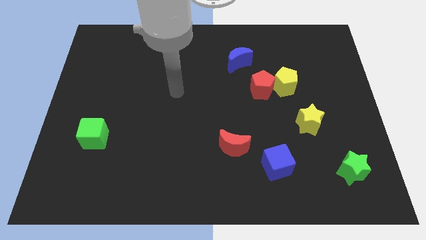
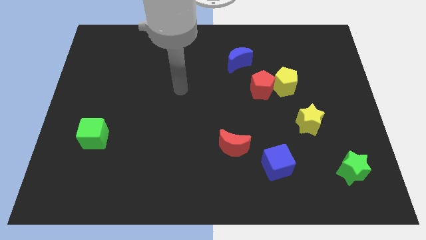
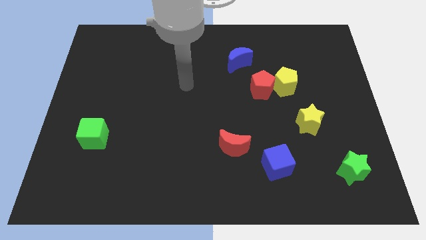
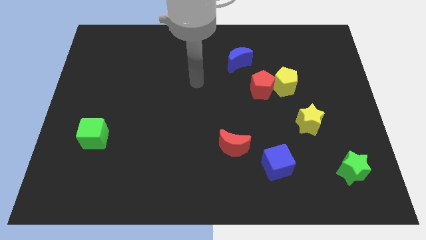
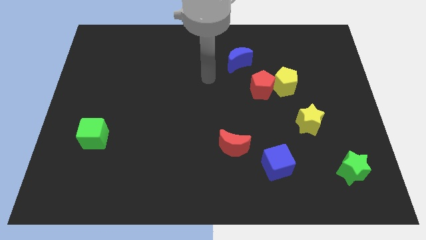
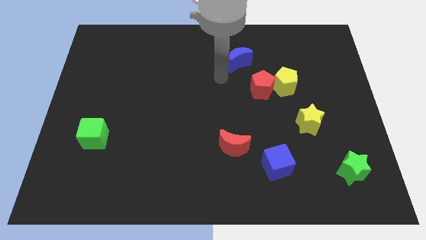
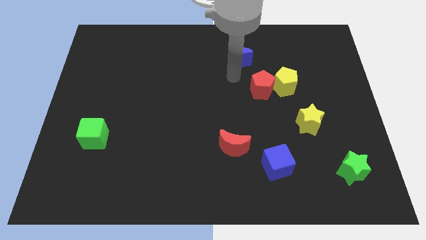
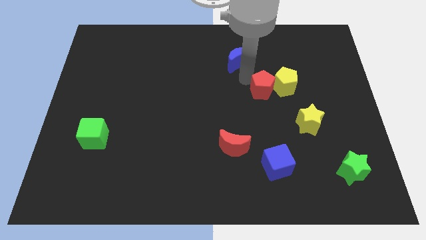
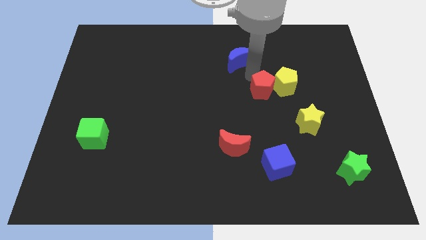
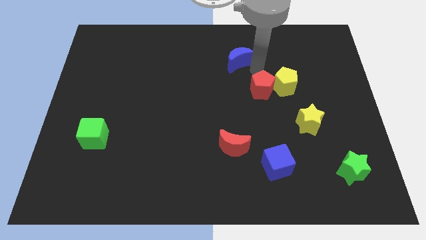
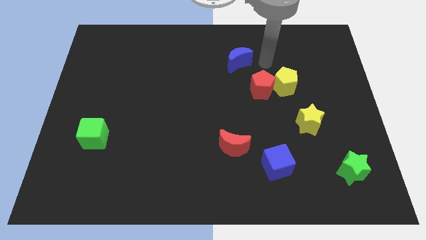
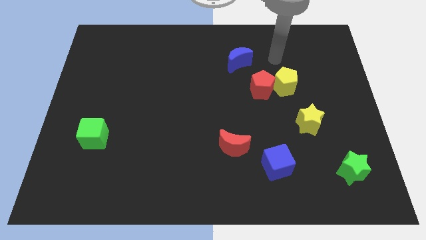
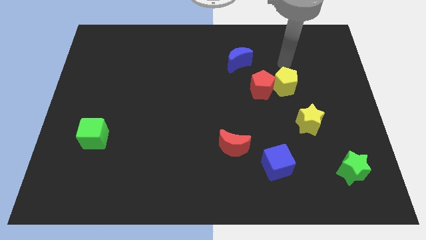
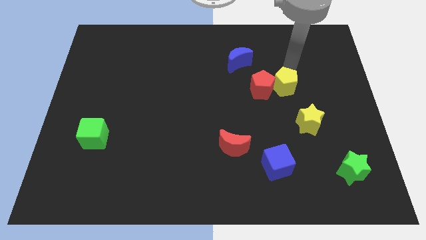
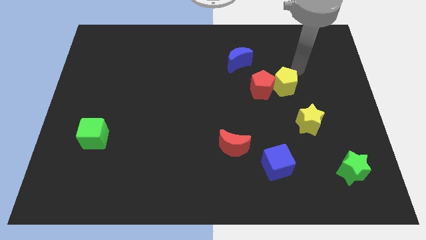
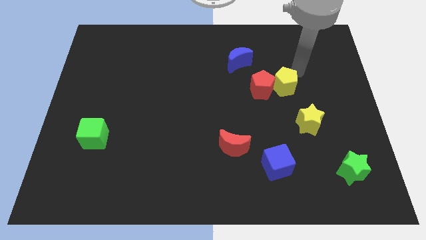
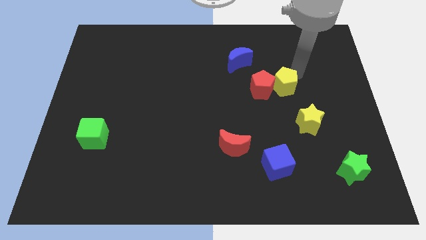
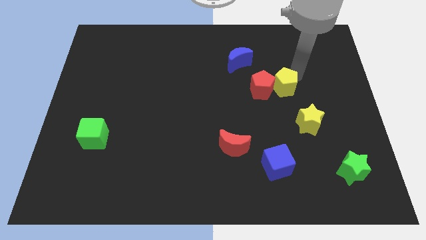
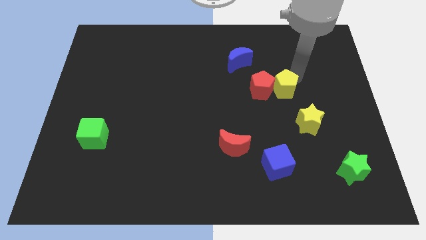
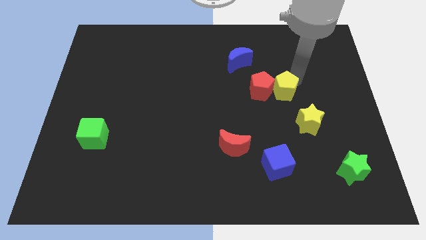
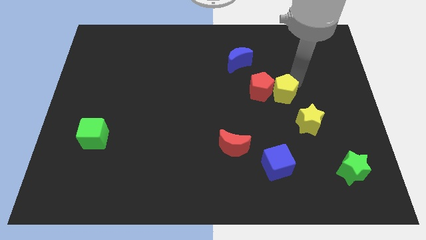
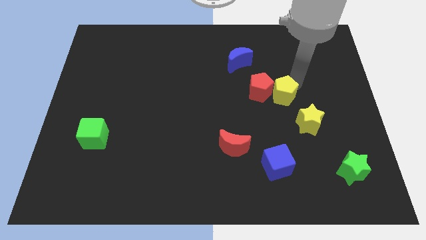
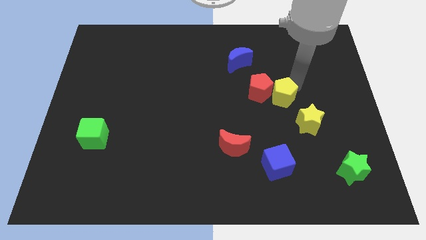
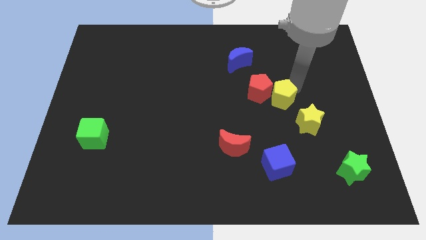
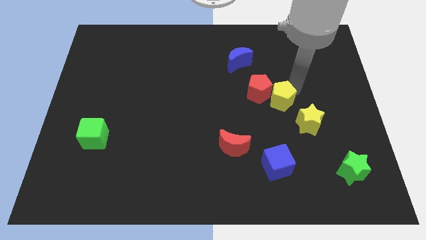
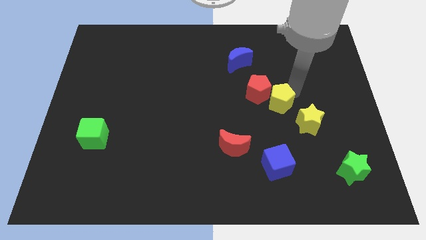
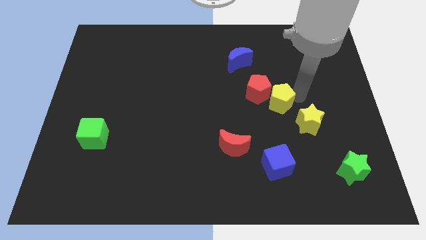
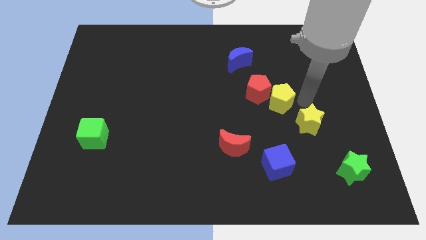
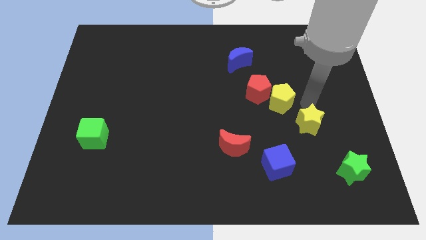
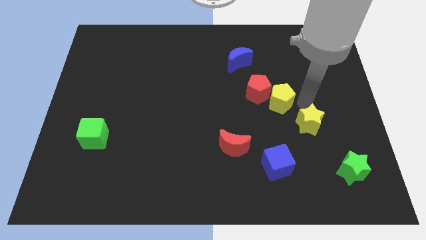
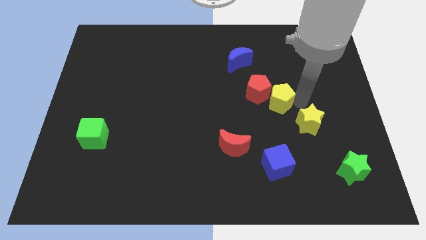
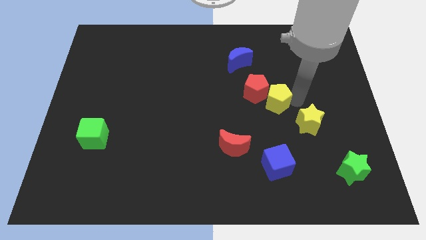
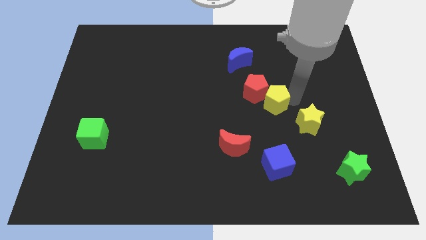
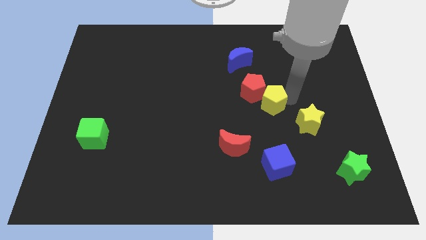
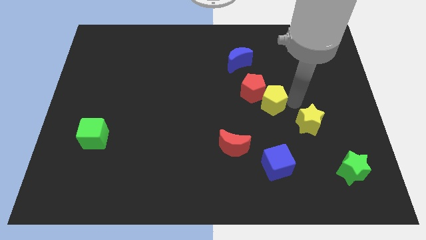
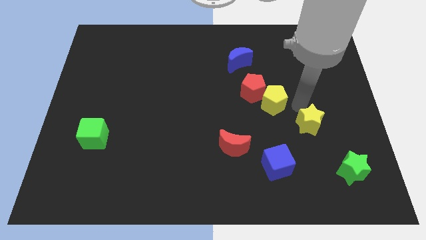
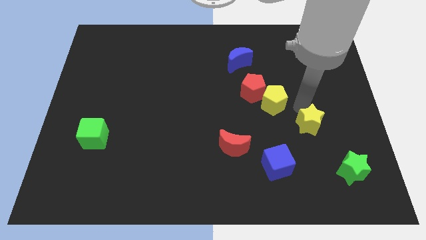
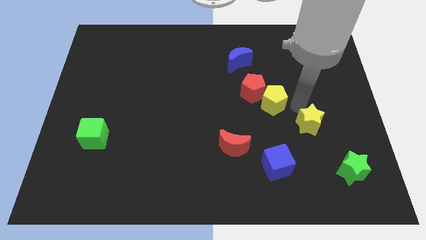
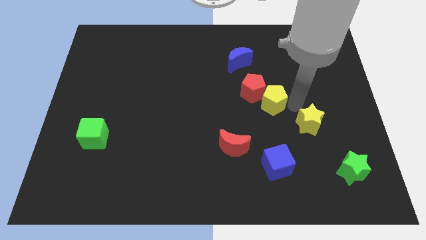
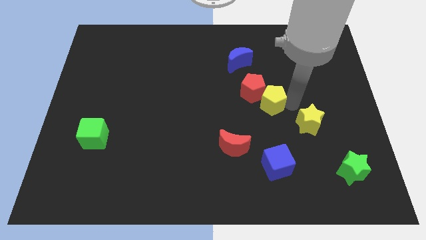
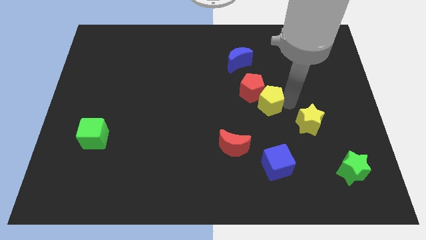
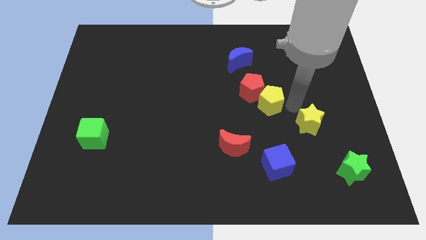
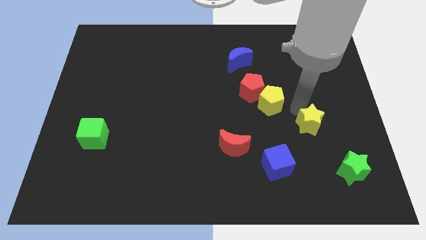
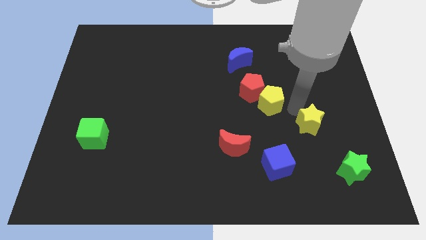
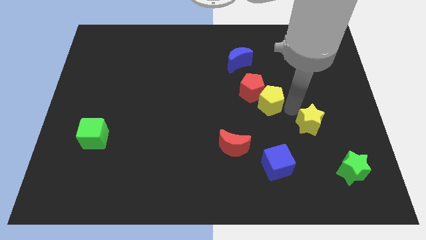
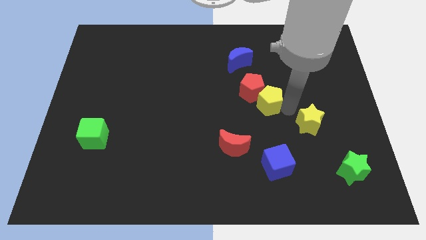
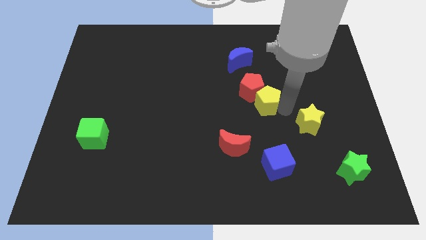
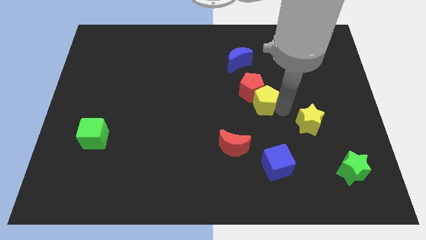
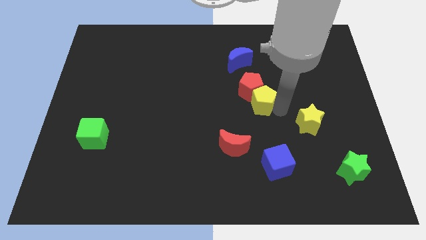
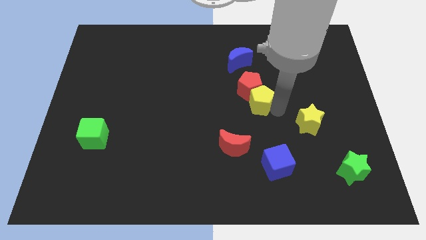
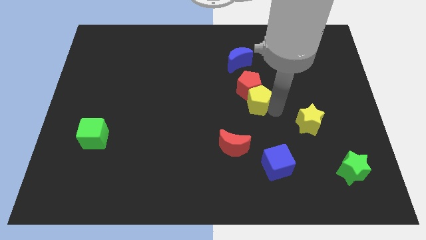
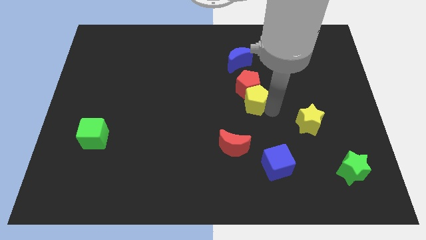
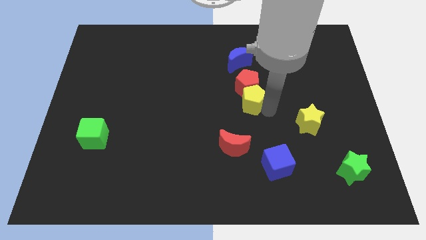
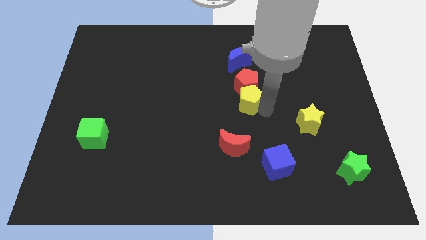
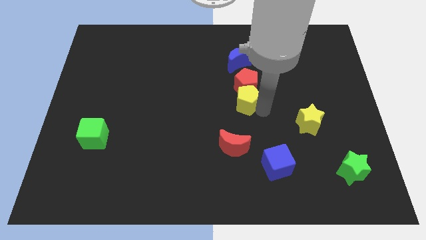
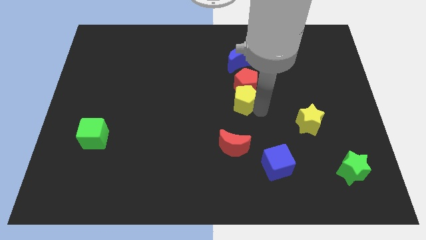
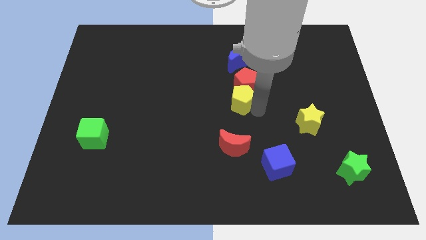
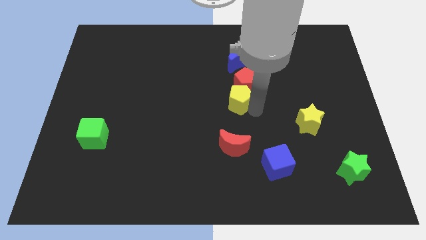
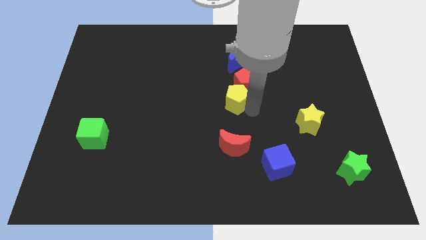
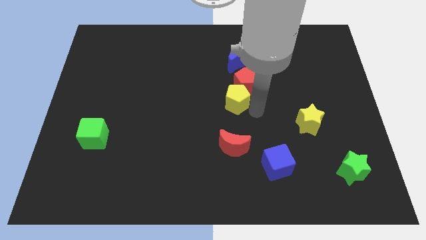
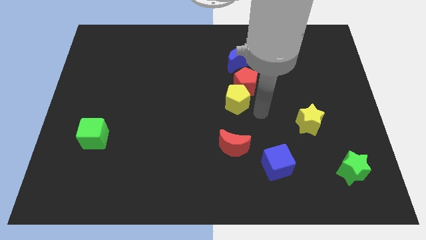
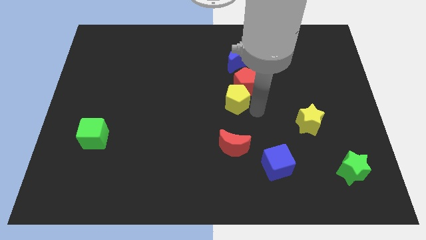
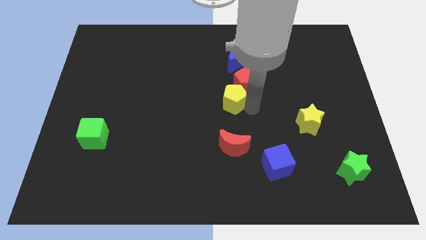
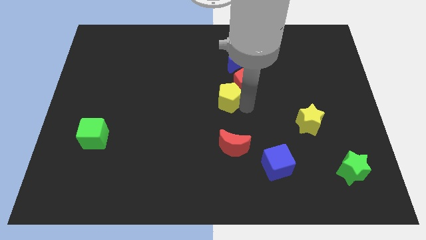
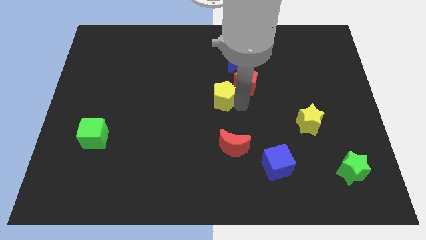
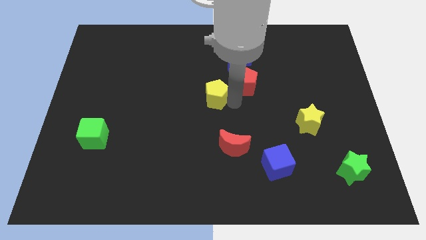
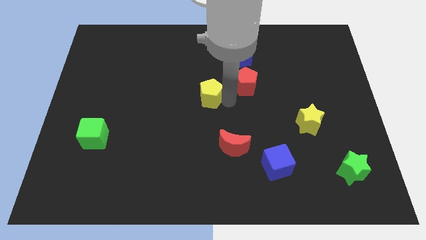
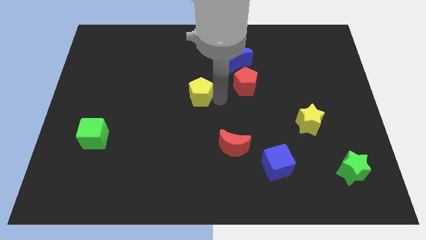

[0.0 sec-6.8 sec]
move the yellow pentagon to the left

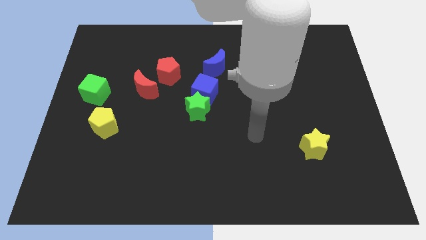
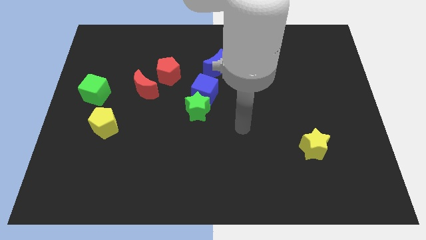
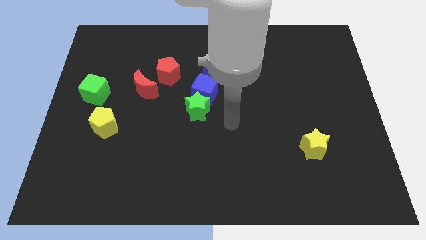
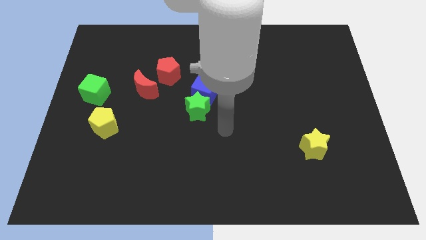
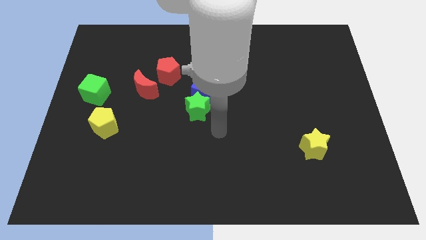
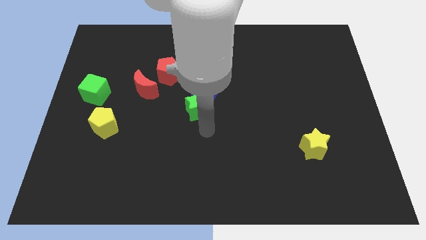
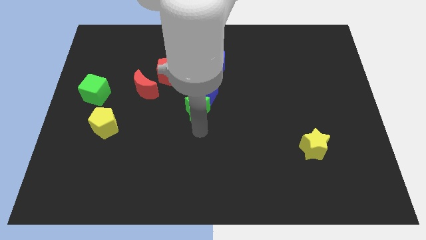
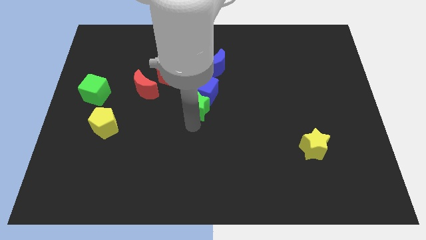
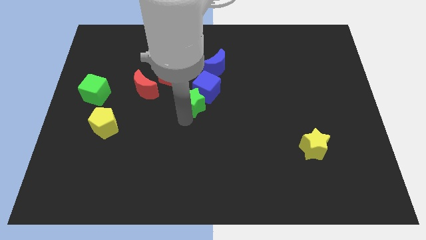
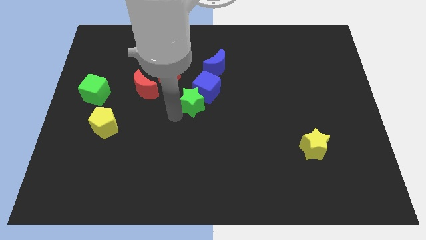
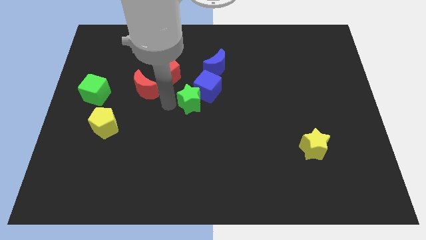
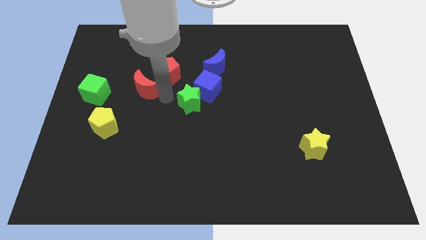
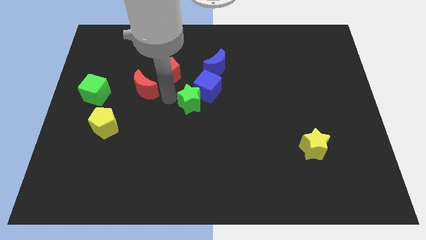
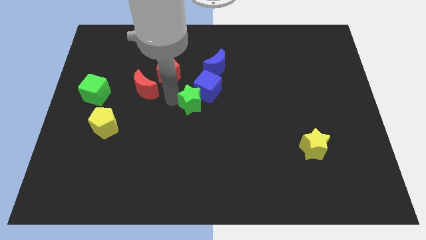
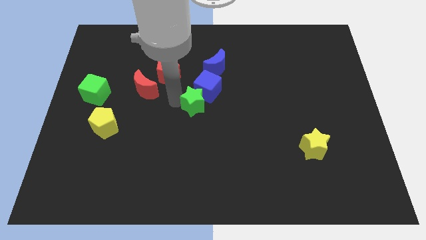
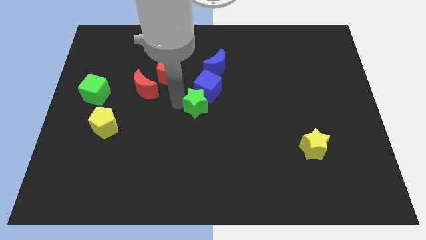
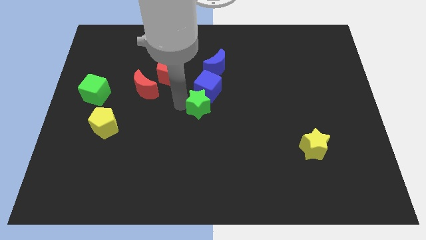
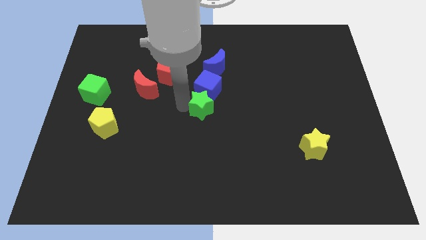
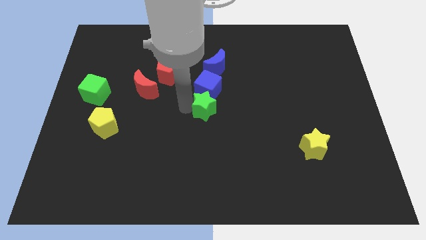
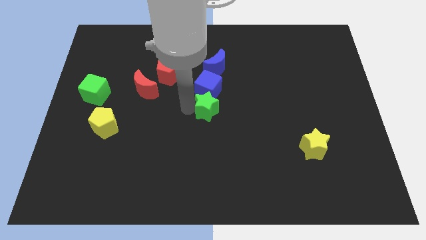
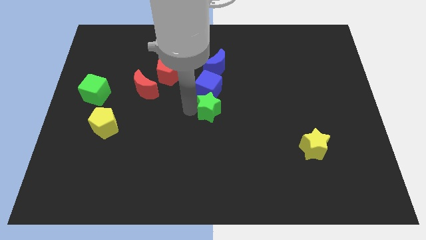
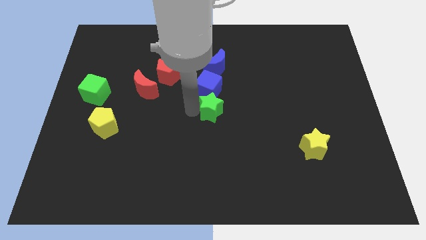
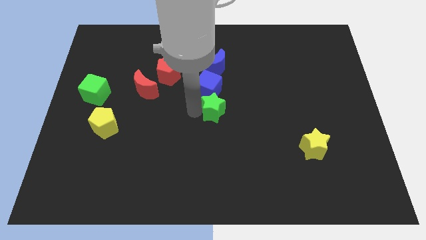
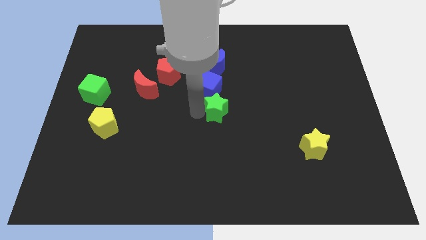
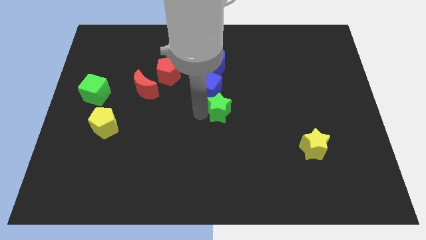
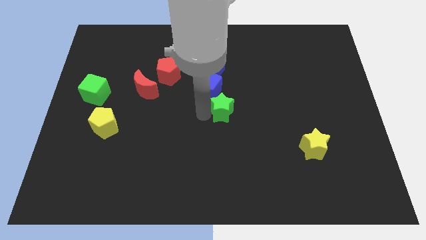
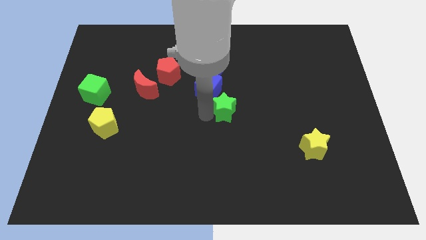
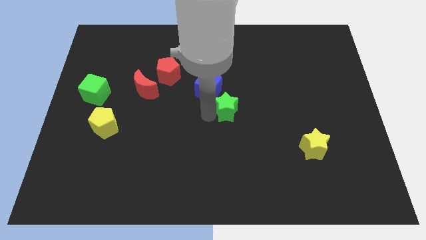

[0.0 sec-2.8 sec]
slide the green star to the right slightly
